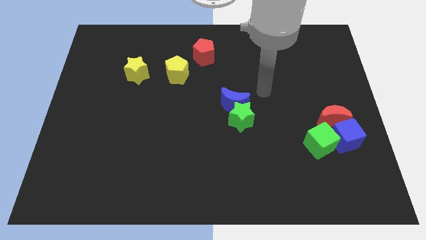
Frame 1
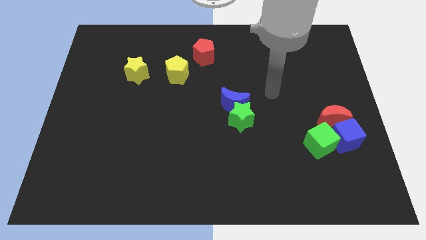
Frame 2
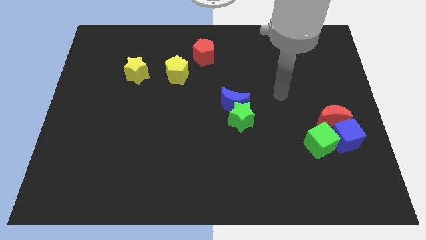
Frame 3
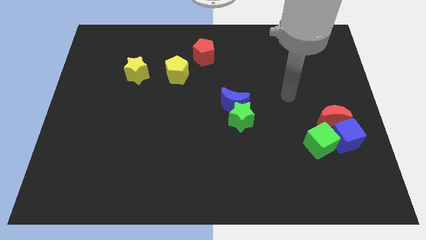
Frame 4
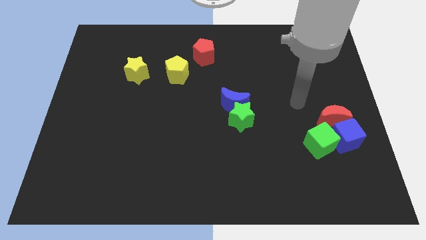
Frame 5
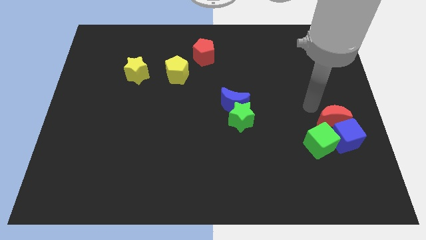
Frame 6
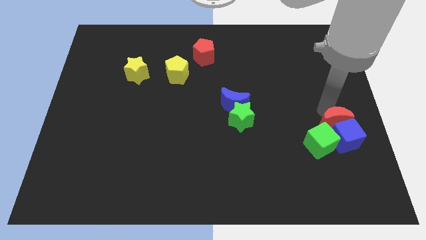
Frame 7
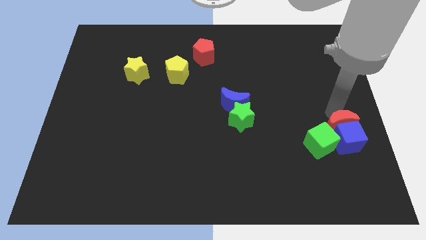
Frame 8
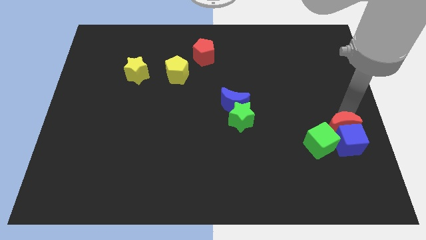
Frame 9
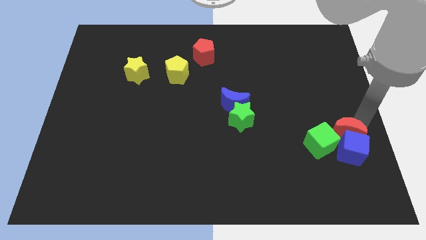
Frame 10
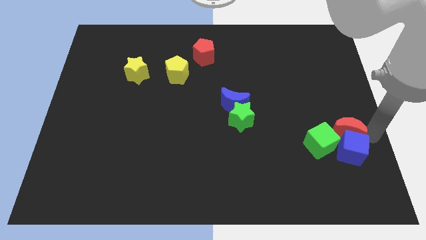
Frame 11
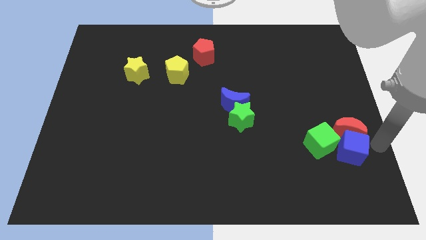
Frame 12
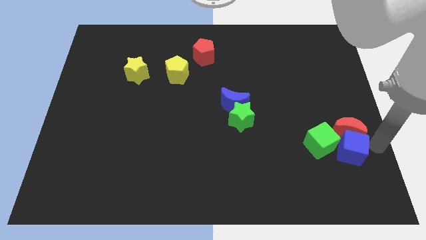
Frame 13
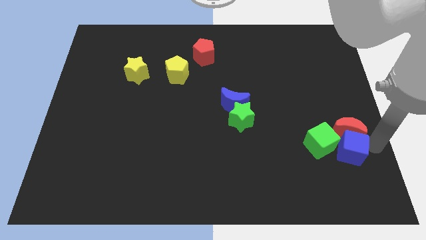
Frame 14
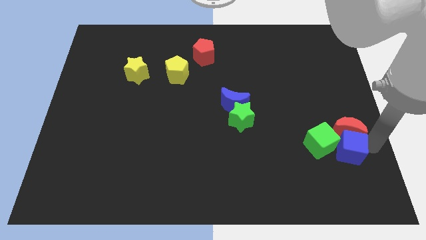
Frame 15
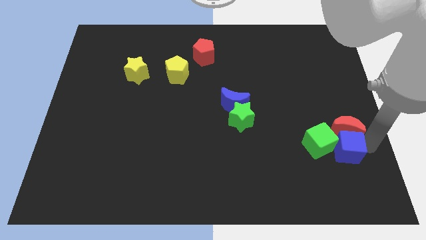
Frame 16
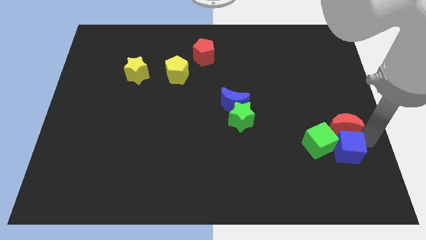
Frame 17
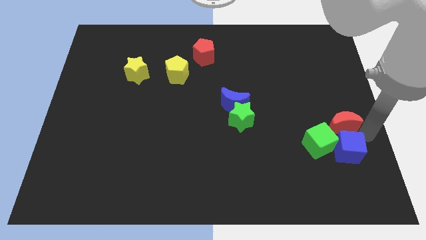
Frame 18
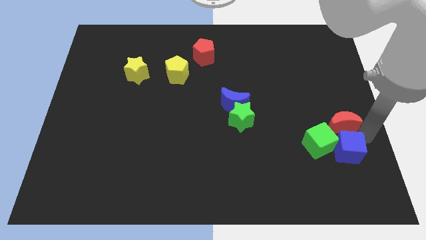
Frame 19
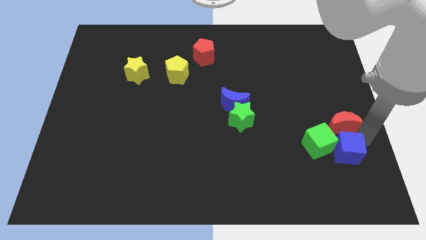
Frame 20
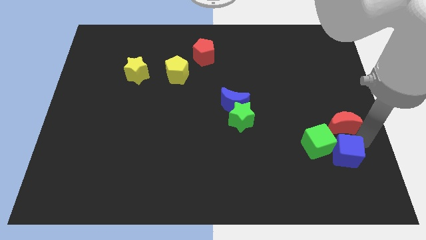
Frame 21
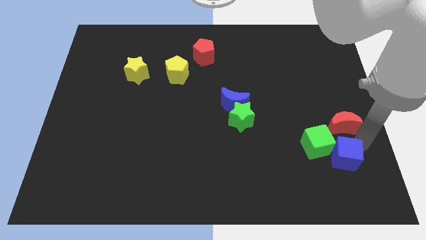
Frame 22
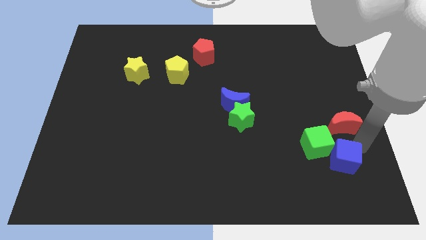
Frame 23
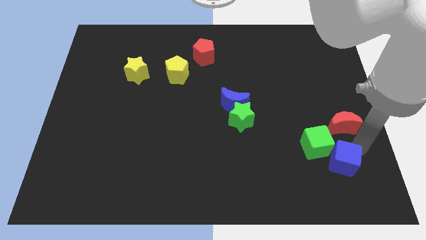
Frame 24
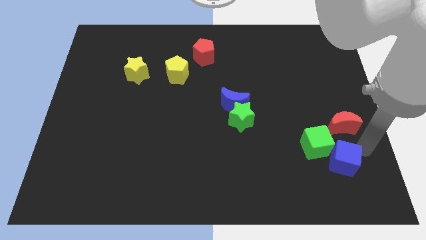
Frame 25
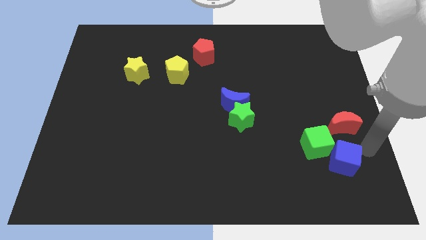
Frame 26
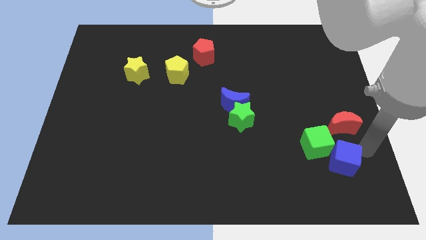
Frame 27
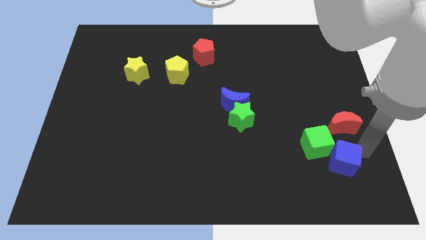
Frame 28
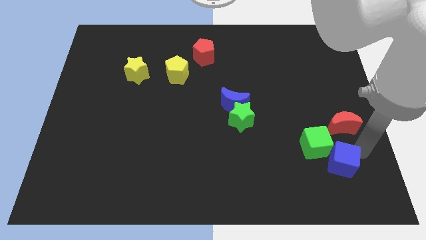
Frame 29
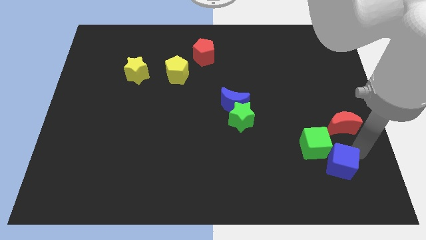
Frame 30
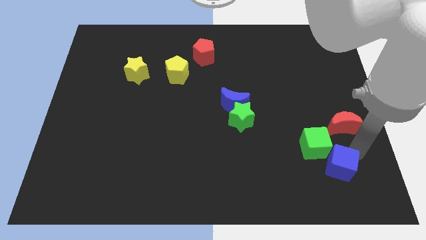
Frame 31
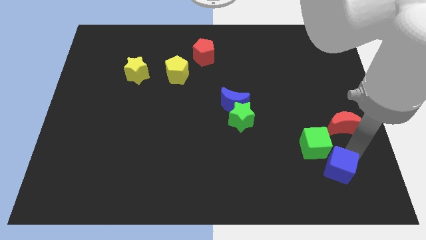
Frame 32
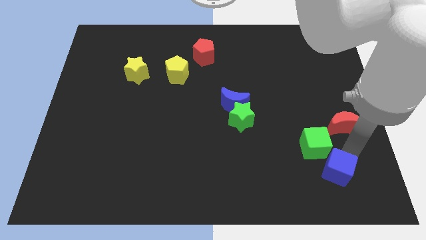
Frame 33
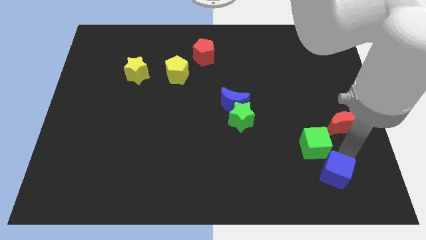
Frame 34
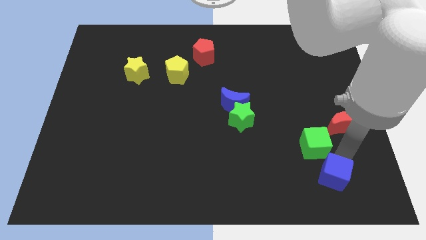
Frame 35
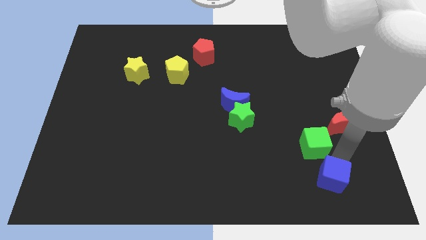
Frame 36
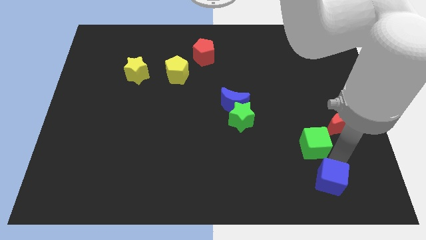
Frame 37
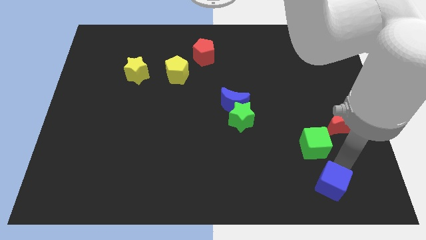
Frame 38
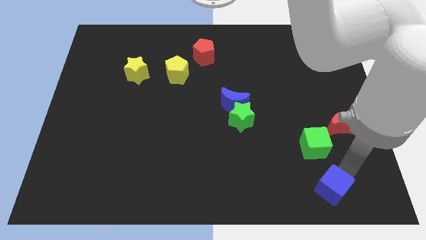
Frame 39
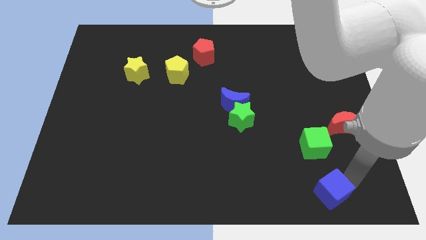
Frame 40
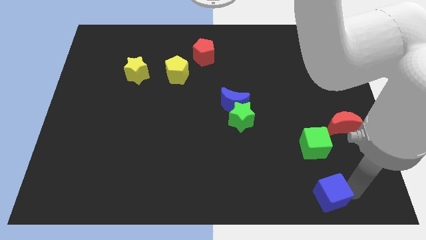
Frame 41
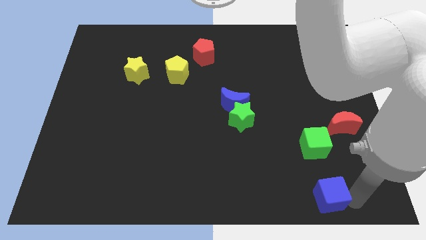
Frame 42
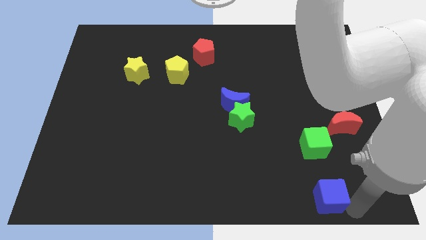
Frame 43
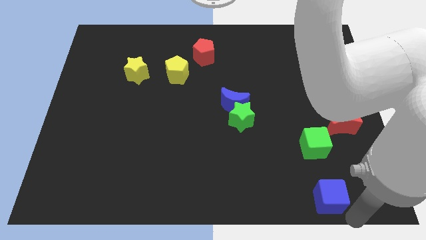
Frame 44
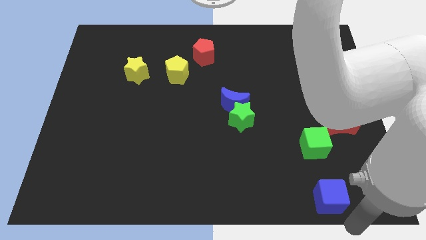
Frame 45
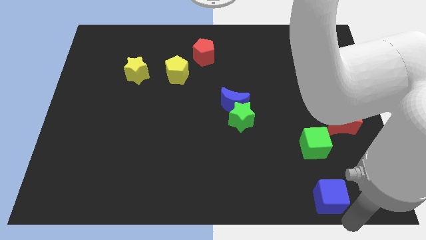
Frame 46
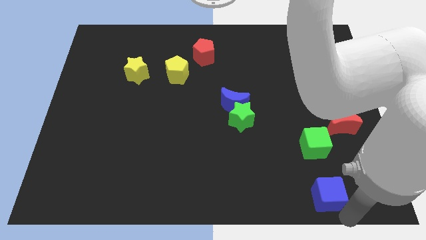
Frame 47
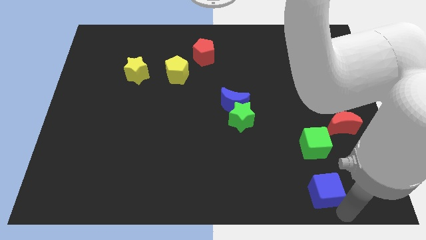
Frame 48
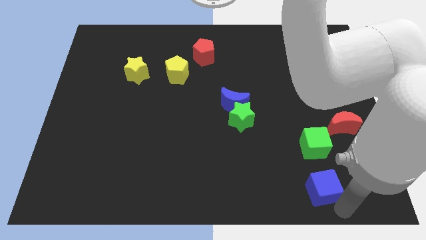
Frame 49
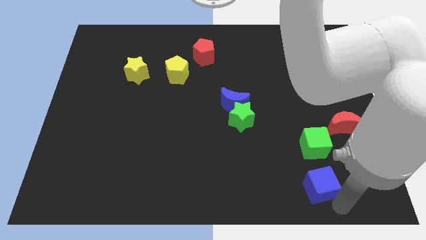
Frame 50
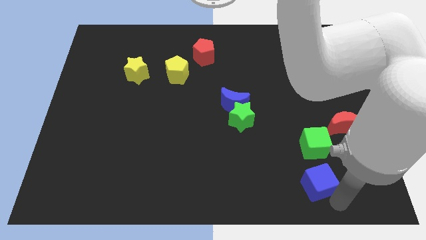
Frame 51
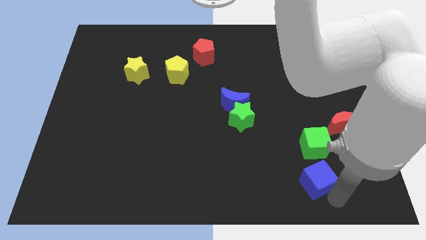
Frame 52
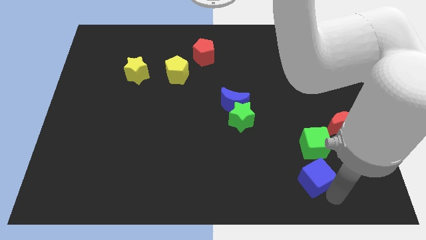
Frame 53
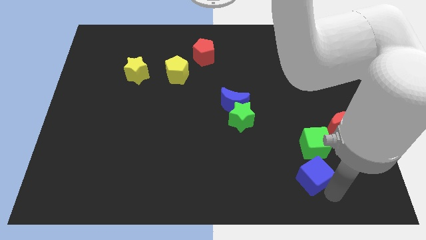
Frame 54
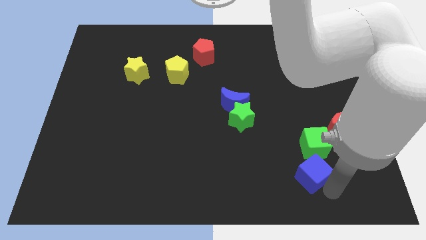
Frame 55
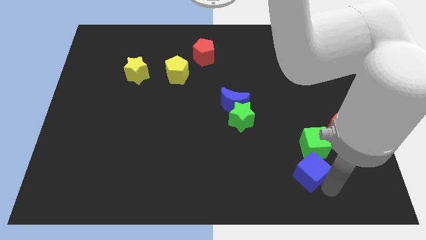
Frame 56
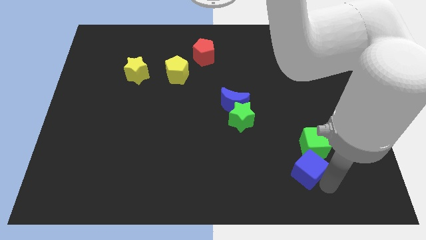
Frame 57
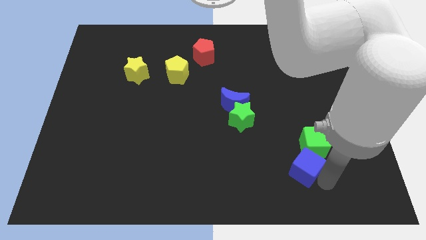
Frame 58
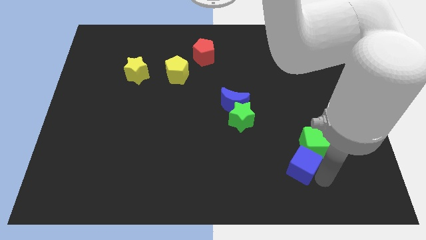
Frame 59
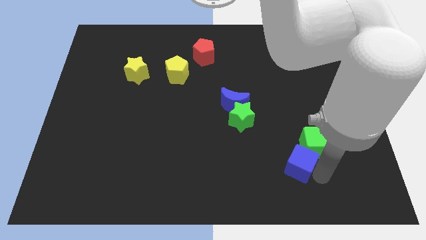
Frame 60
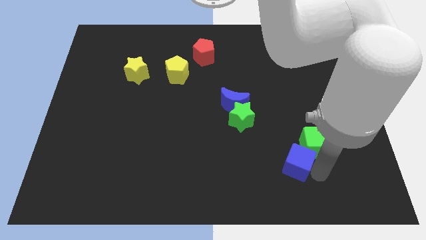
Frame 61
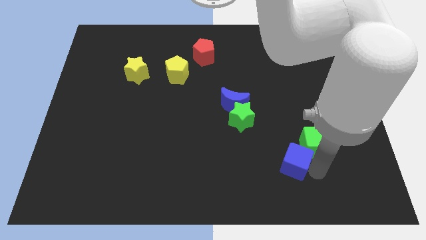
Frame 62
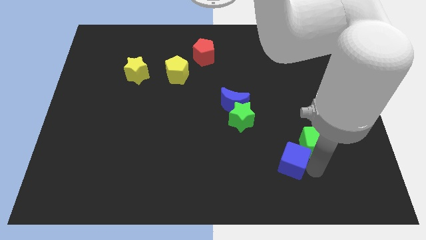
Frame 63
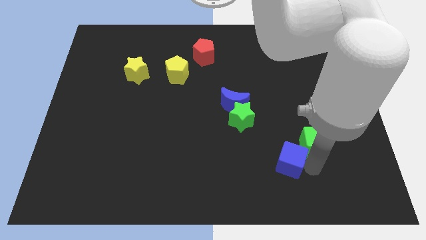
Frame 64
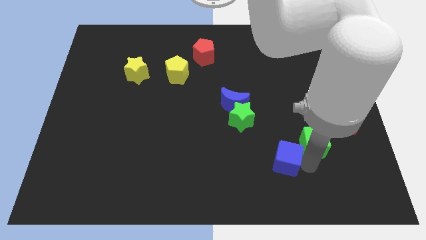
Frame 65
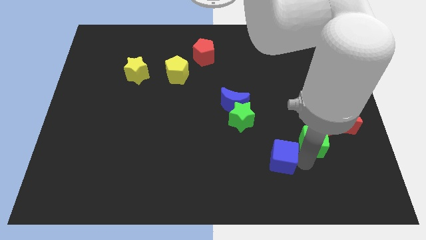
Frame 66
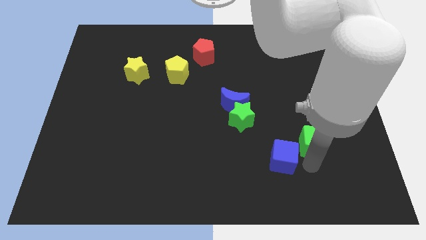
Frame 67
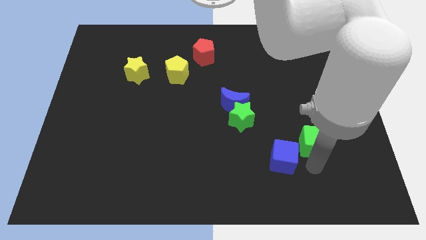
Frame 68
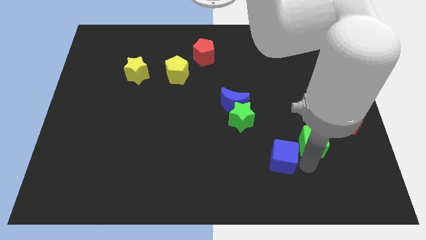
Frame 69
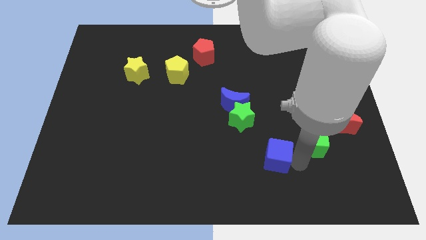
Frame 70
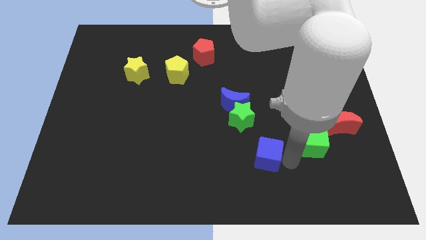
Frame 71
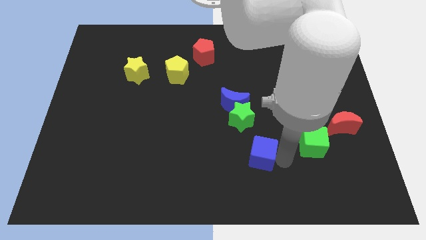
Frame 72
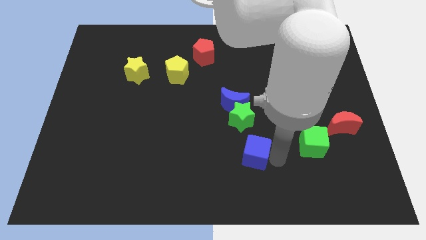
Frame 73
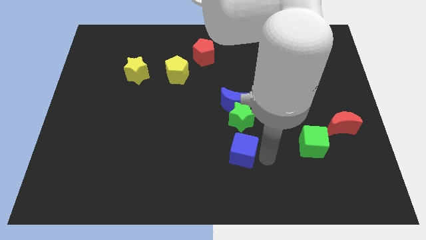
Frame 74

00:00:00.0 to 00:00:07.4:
slide the blue cube to the left

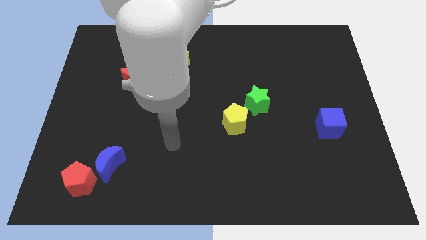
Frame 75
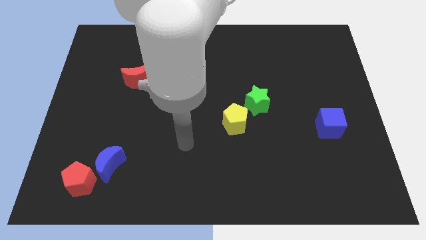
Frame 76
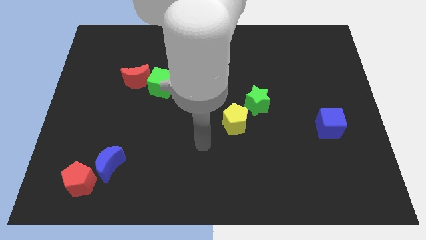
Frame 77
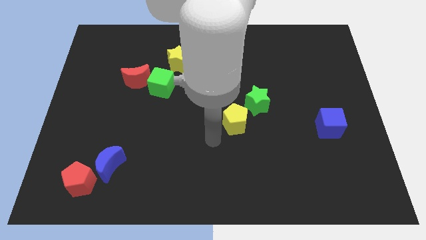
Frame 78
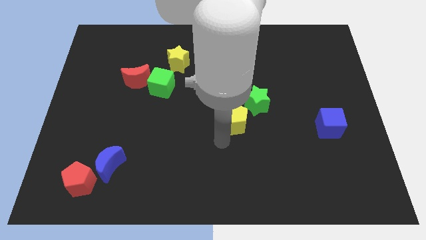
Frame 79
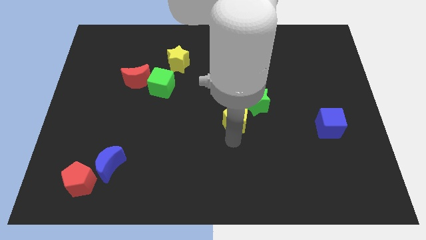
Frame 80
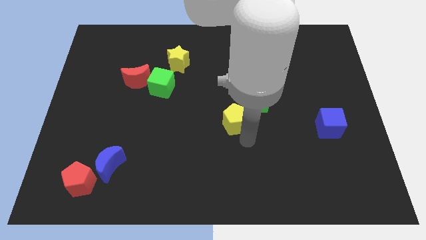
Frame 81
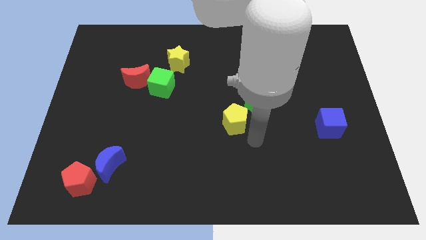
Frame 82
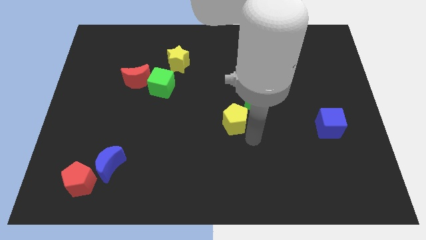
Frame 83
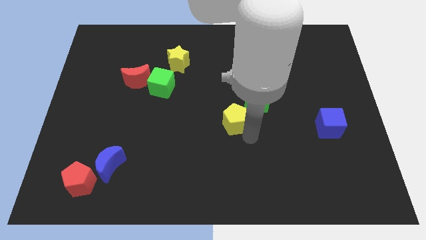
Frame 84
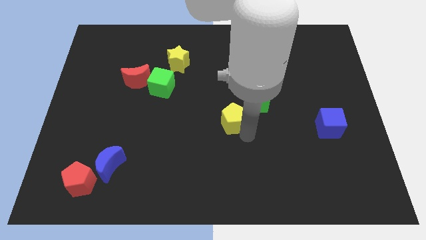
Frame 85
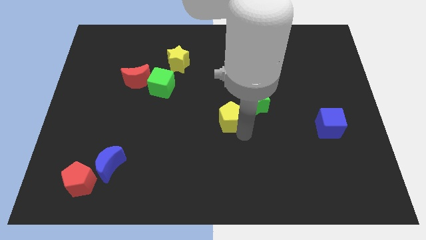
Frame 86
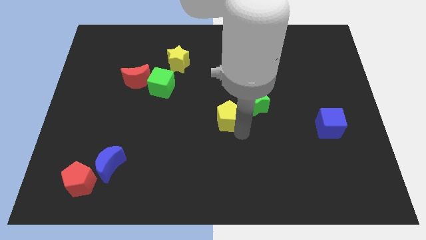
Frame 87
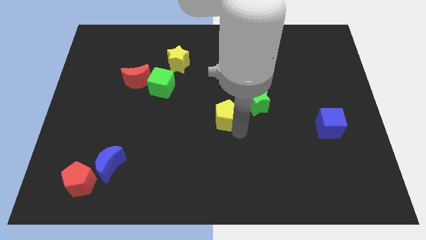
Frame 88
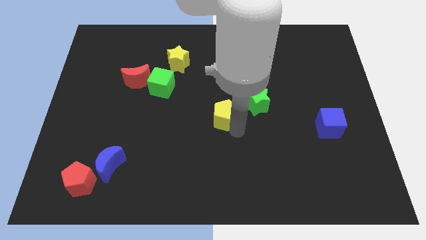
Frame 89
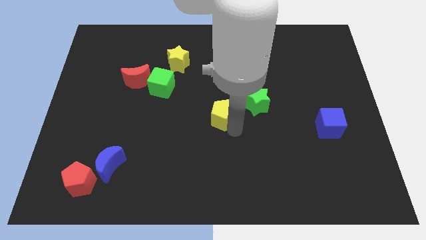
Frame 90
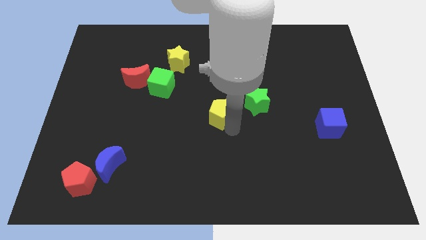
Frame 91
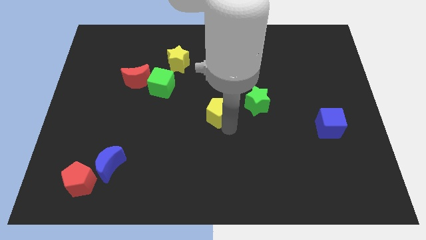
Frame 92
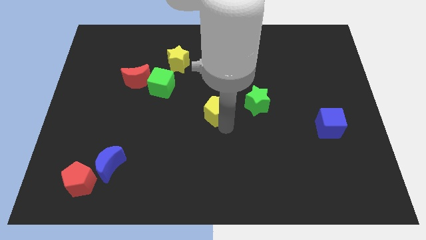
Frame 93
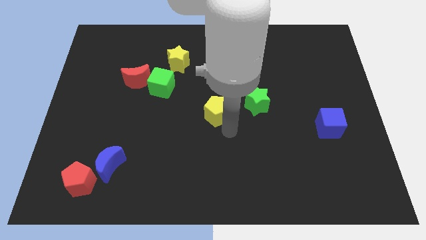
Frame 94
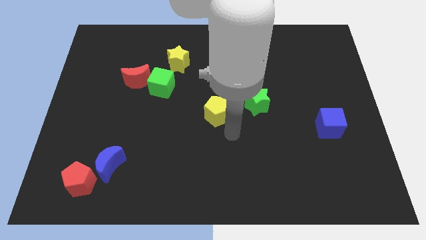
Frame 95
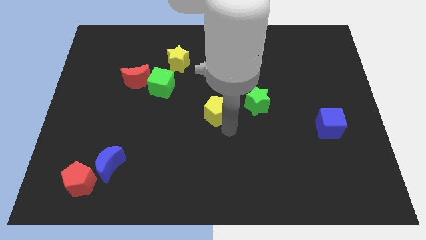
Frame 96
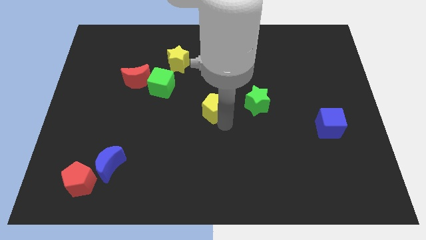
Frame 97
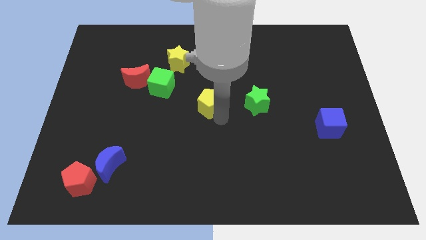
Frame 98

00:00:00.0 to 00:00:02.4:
slightly move the yellow pentagon up and to the left diagonally
